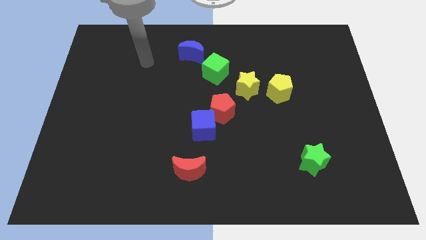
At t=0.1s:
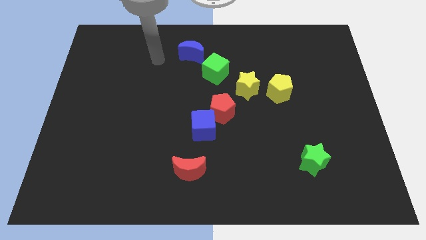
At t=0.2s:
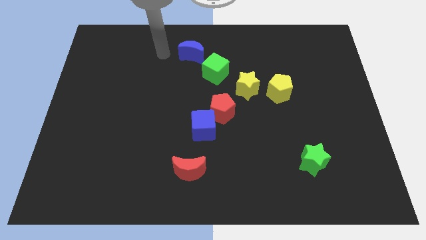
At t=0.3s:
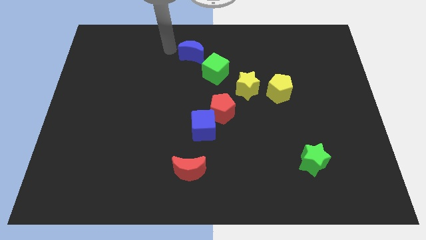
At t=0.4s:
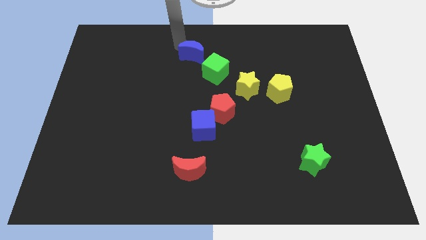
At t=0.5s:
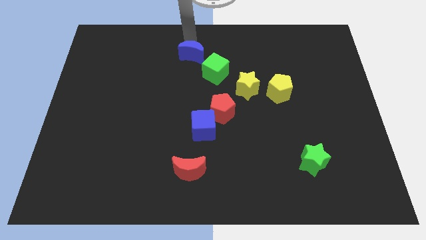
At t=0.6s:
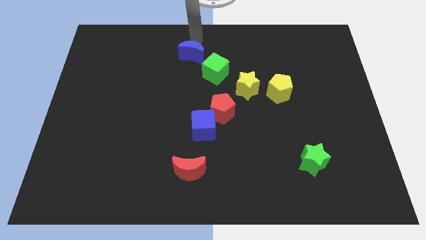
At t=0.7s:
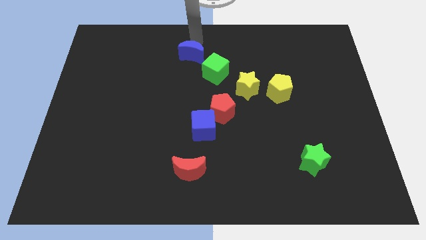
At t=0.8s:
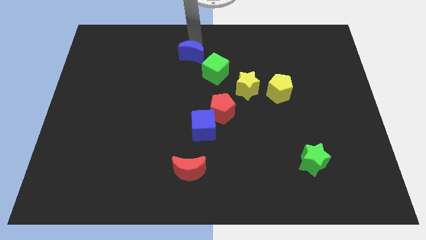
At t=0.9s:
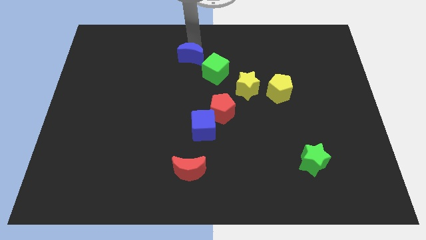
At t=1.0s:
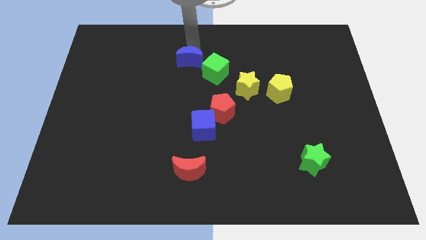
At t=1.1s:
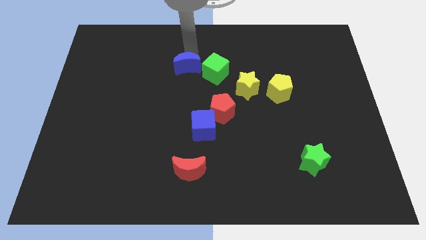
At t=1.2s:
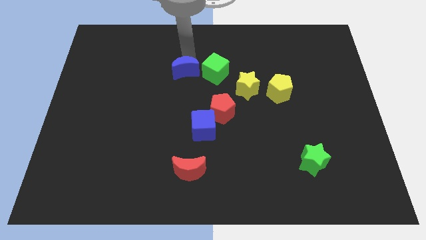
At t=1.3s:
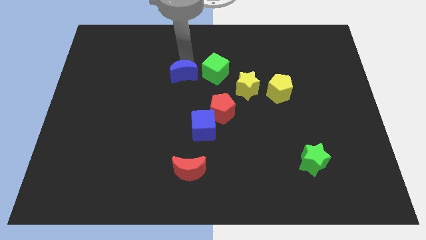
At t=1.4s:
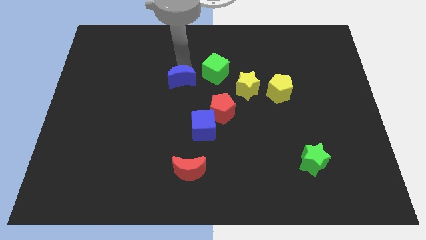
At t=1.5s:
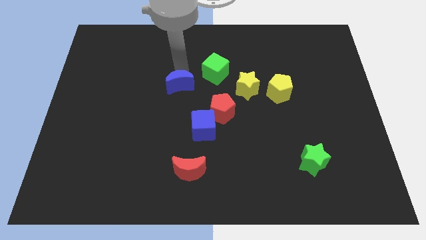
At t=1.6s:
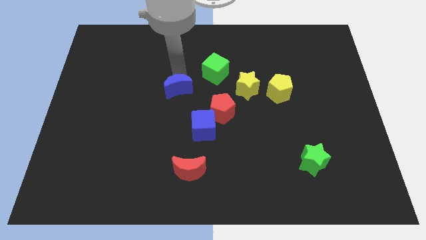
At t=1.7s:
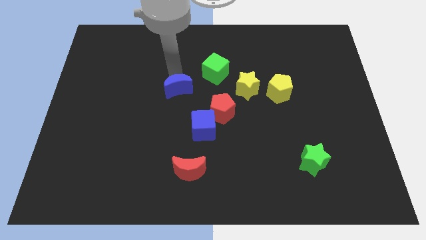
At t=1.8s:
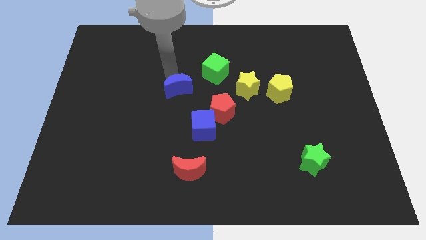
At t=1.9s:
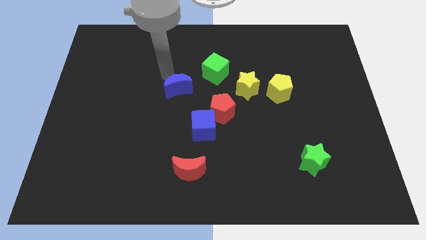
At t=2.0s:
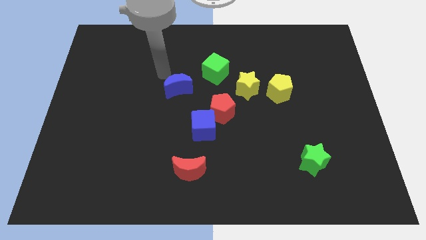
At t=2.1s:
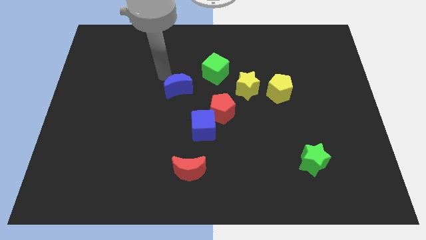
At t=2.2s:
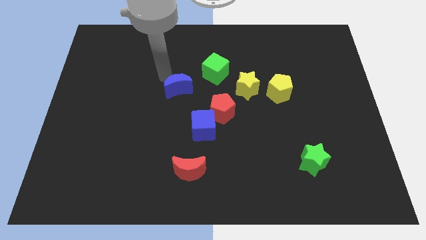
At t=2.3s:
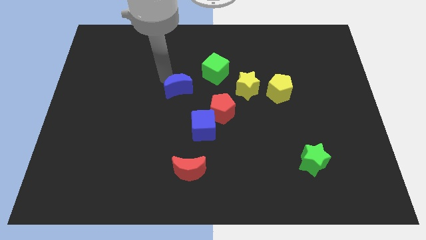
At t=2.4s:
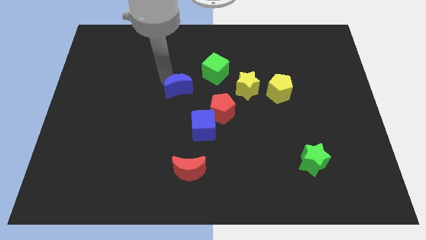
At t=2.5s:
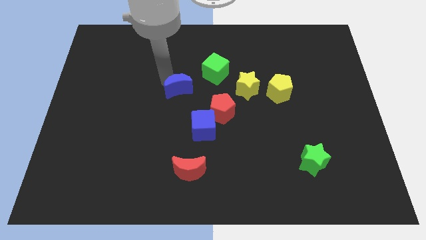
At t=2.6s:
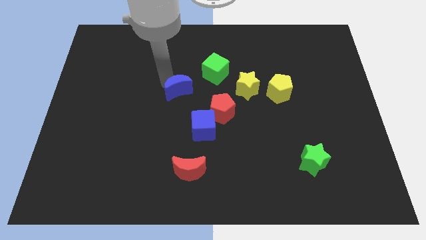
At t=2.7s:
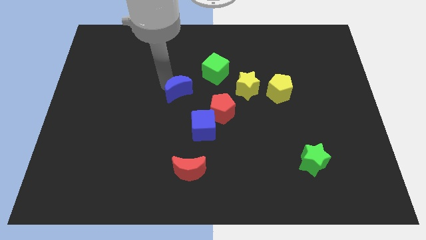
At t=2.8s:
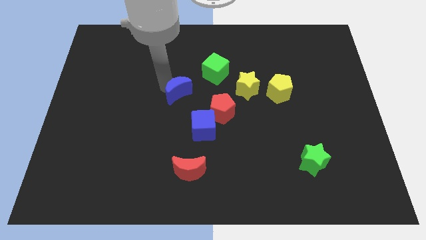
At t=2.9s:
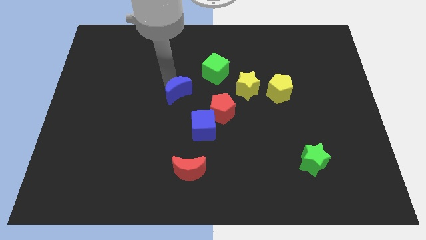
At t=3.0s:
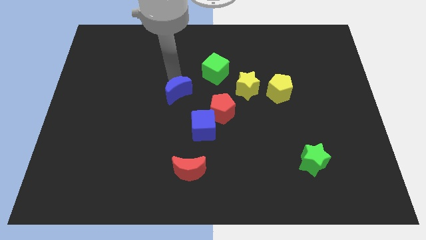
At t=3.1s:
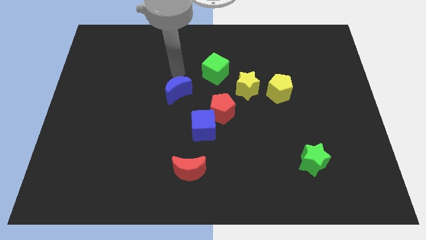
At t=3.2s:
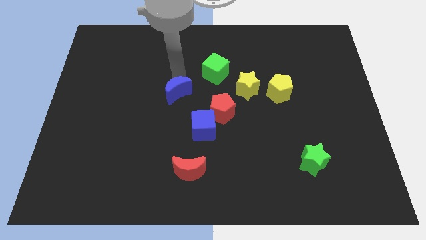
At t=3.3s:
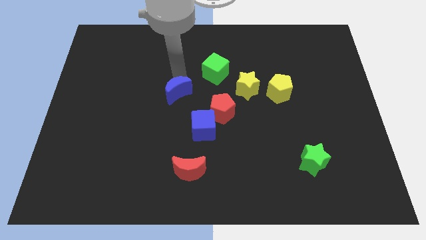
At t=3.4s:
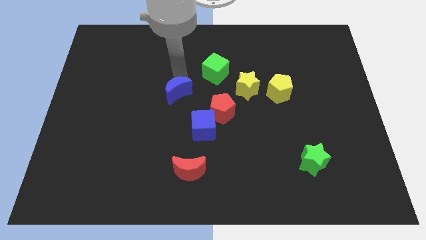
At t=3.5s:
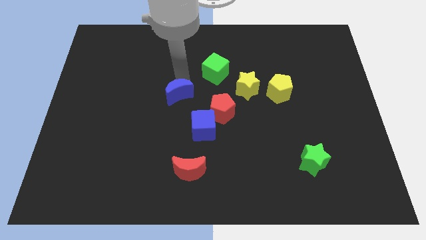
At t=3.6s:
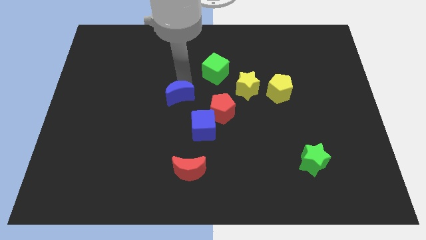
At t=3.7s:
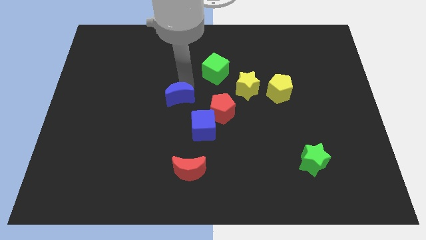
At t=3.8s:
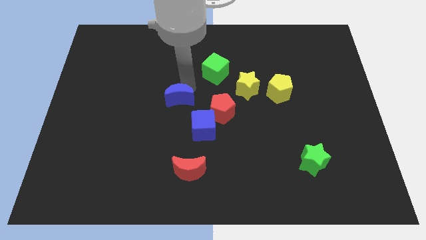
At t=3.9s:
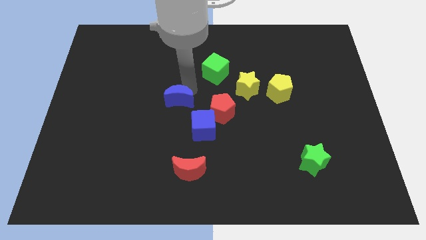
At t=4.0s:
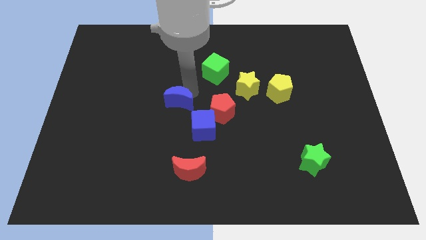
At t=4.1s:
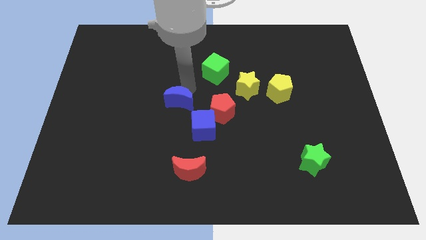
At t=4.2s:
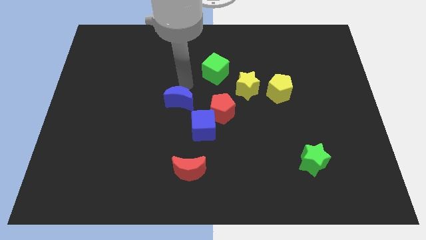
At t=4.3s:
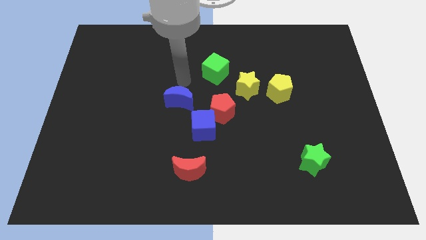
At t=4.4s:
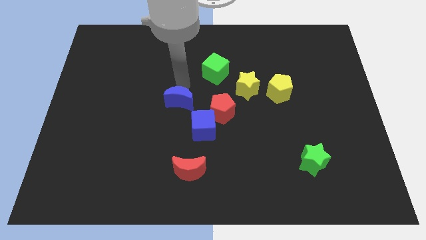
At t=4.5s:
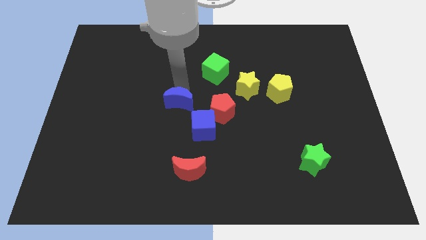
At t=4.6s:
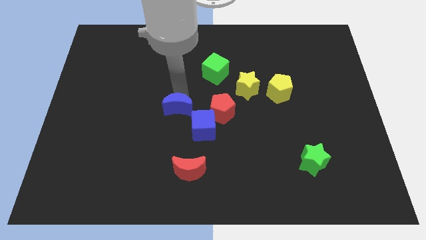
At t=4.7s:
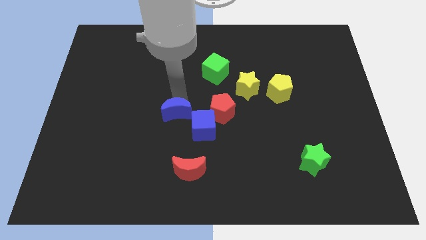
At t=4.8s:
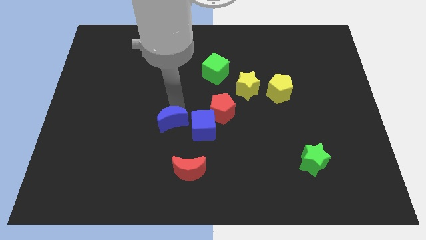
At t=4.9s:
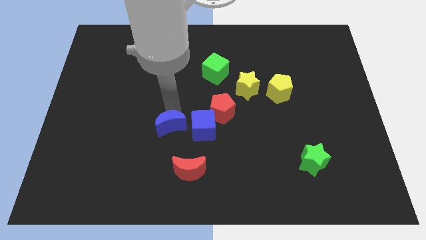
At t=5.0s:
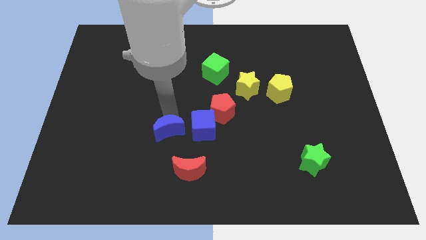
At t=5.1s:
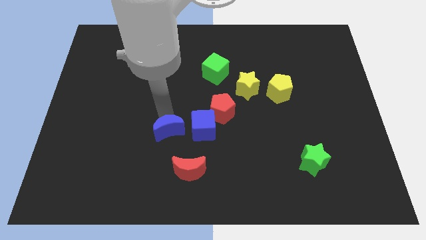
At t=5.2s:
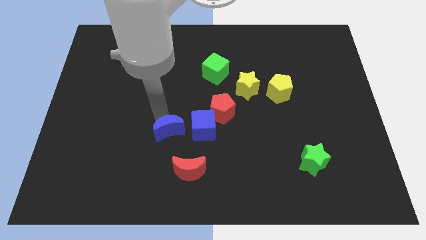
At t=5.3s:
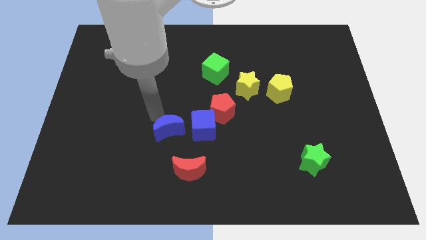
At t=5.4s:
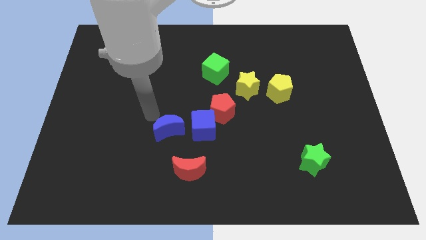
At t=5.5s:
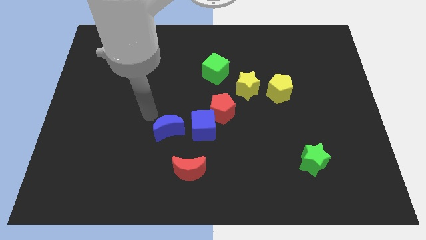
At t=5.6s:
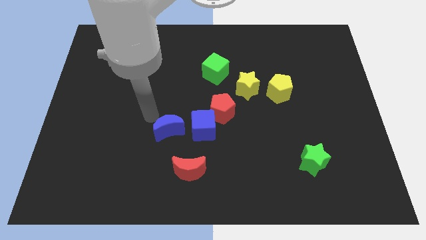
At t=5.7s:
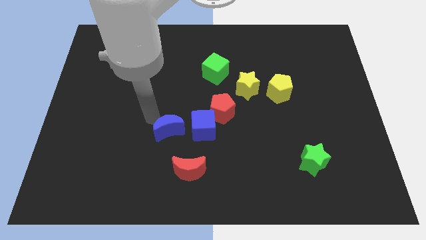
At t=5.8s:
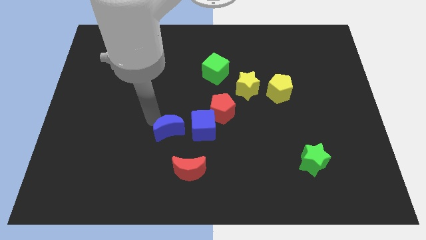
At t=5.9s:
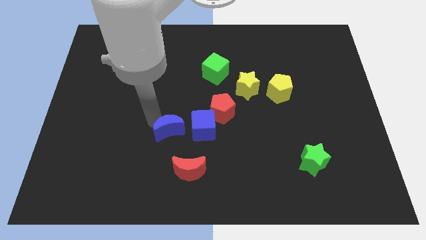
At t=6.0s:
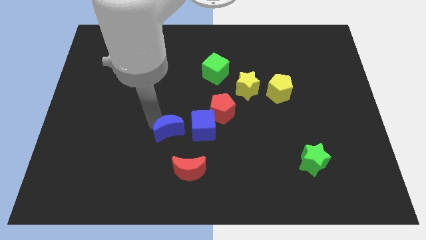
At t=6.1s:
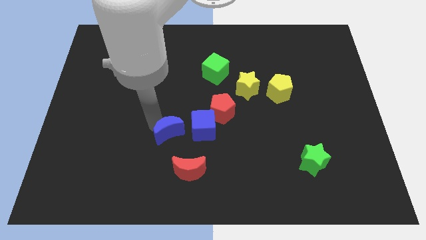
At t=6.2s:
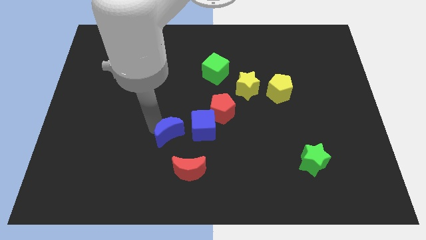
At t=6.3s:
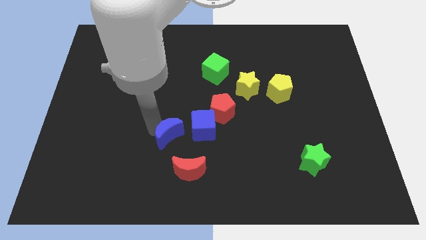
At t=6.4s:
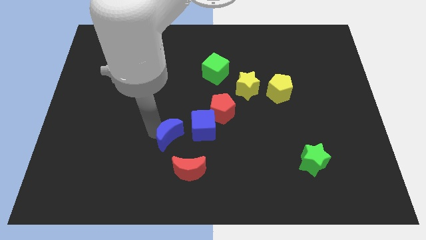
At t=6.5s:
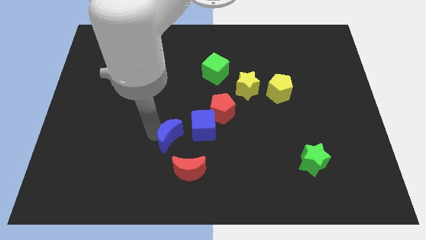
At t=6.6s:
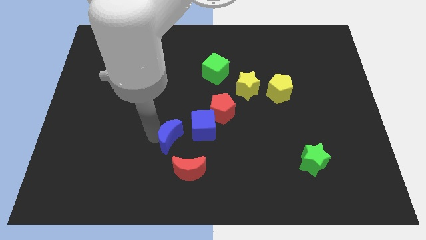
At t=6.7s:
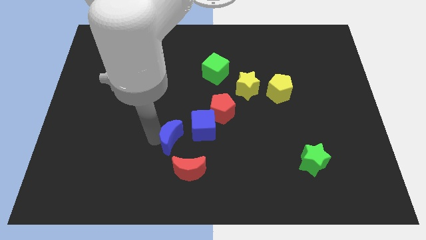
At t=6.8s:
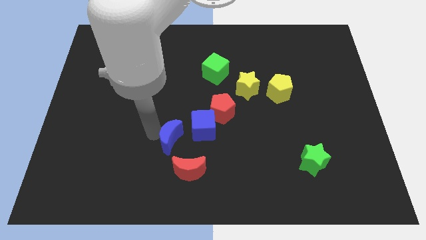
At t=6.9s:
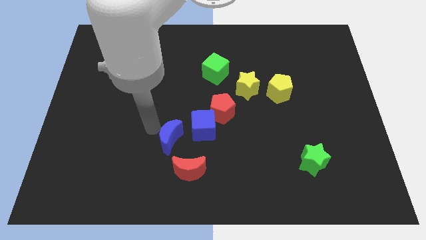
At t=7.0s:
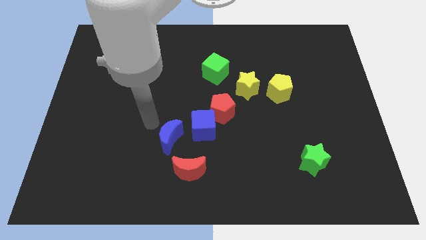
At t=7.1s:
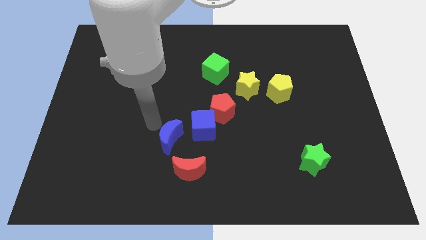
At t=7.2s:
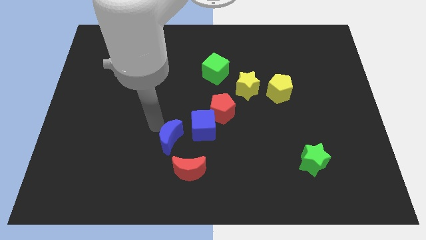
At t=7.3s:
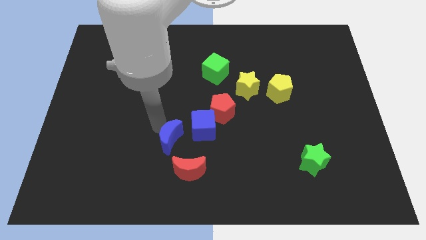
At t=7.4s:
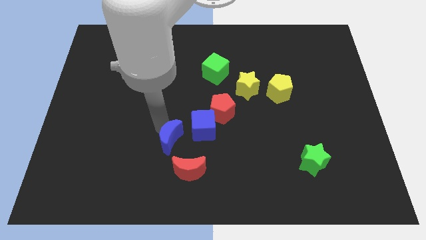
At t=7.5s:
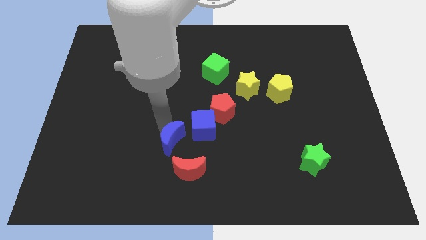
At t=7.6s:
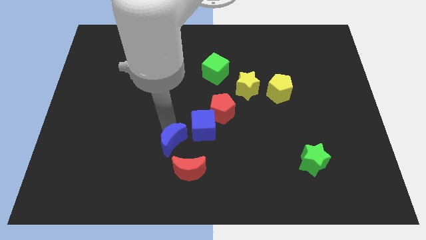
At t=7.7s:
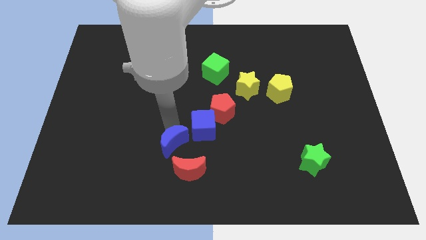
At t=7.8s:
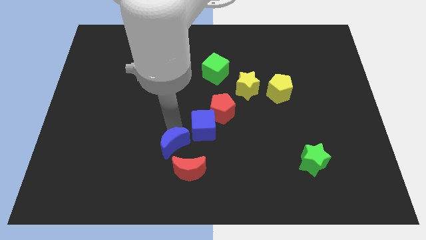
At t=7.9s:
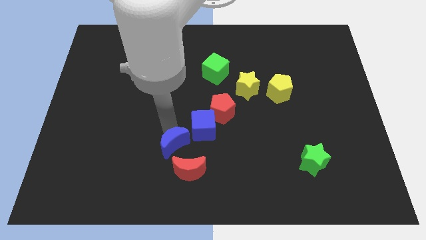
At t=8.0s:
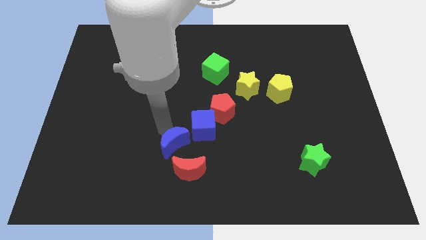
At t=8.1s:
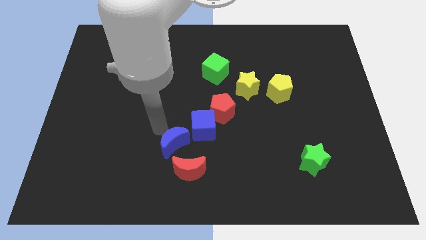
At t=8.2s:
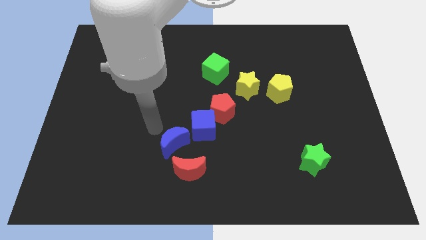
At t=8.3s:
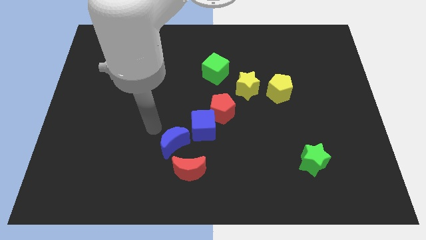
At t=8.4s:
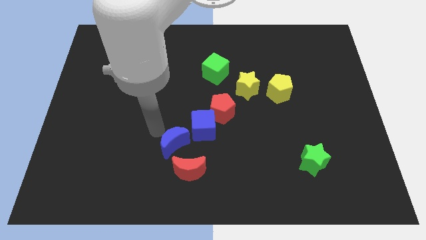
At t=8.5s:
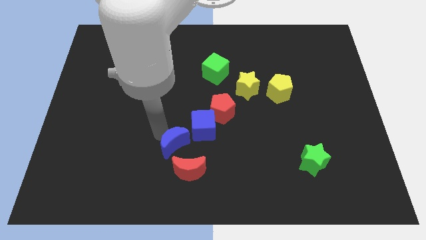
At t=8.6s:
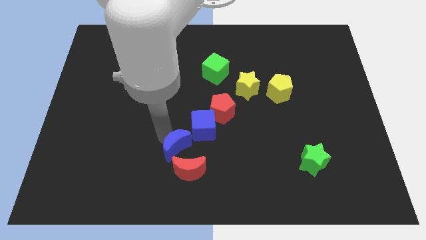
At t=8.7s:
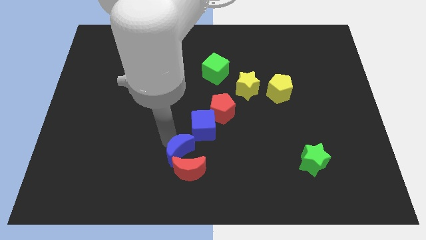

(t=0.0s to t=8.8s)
slide the blue moon next to the red moon
